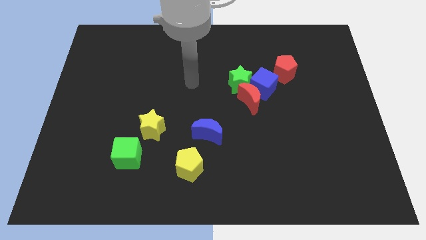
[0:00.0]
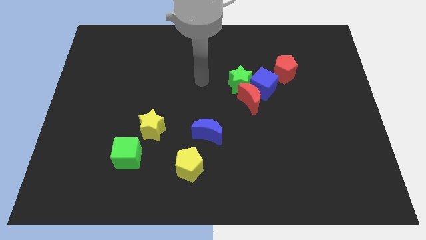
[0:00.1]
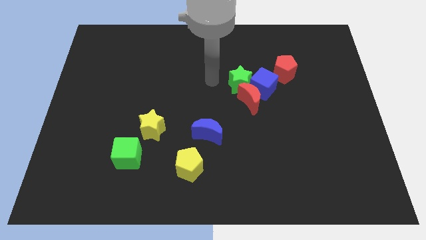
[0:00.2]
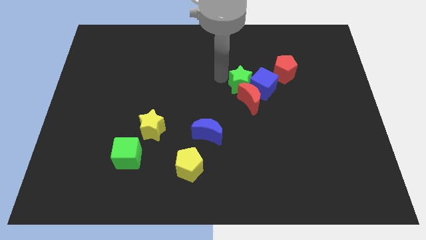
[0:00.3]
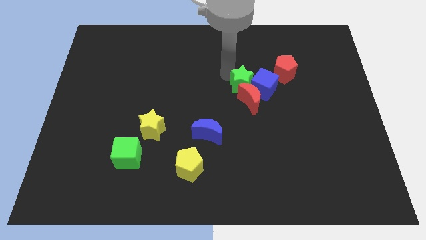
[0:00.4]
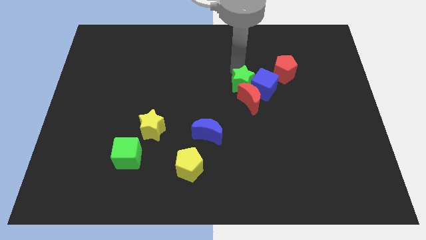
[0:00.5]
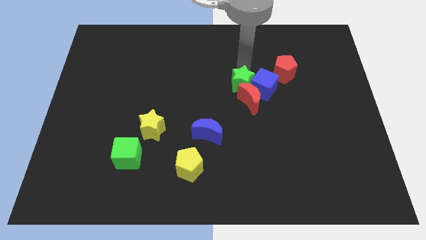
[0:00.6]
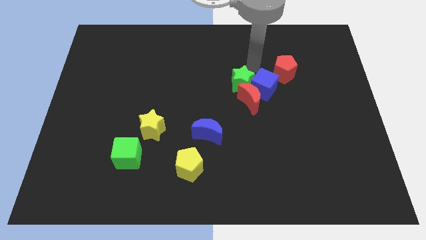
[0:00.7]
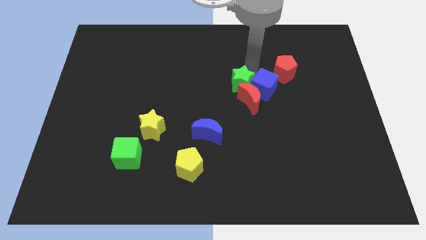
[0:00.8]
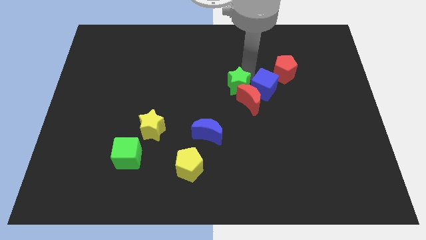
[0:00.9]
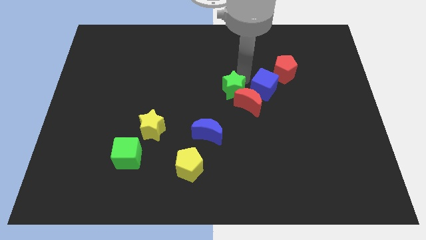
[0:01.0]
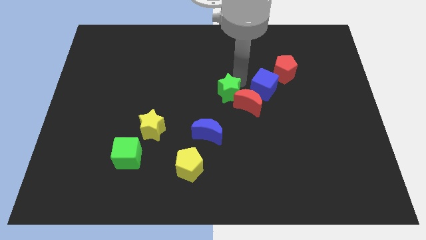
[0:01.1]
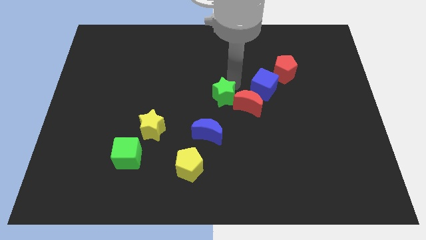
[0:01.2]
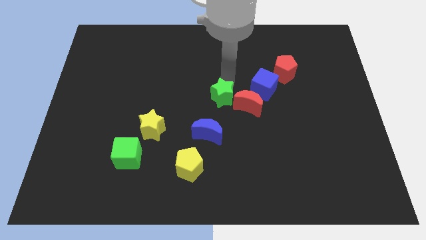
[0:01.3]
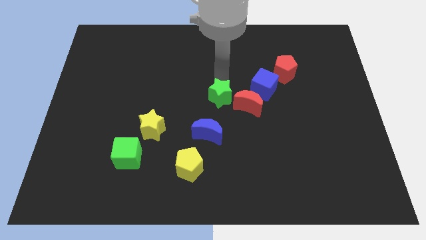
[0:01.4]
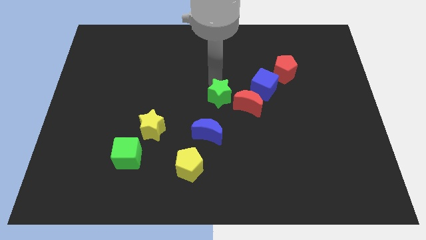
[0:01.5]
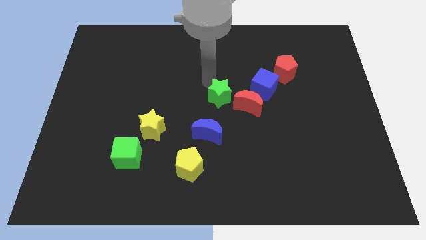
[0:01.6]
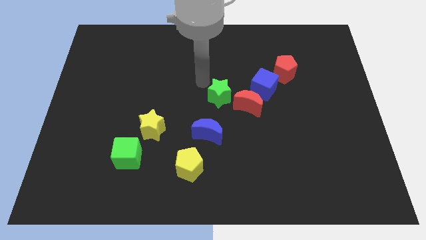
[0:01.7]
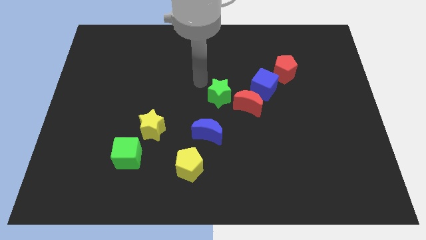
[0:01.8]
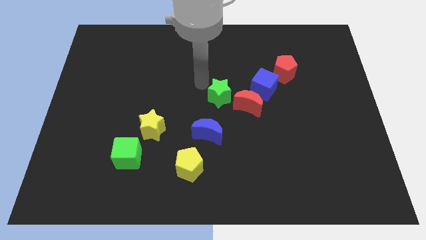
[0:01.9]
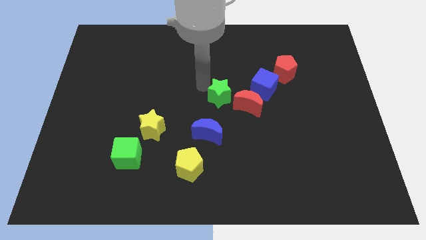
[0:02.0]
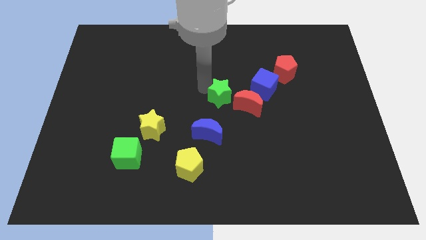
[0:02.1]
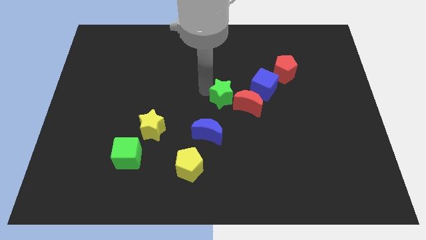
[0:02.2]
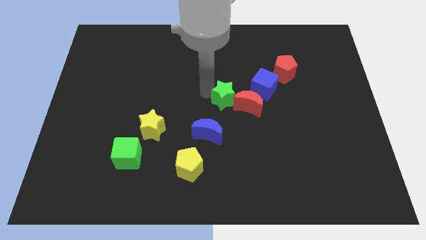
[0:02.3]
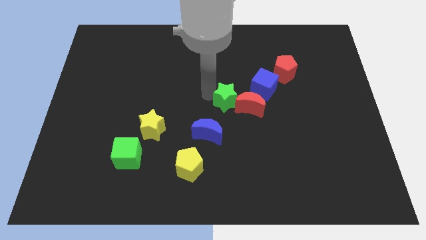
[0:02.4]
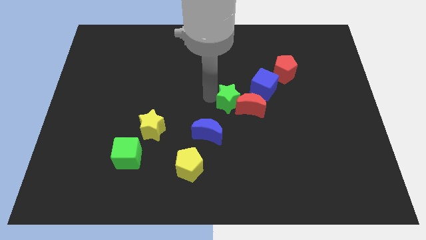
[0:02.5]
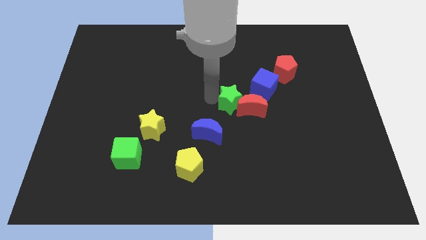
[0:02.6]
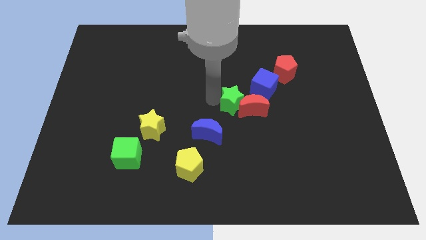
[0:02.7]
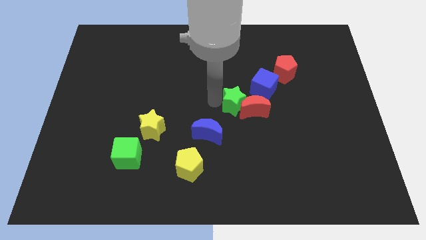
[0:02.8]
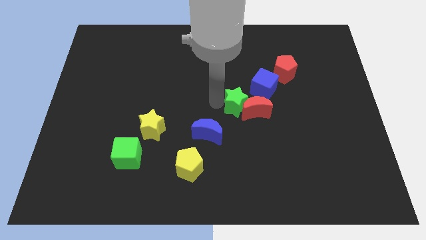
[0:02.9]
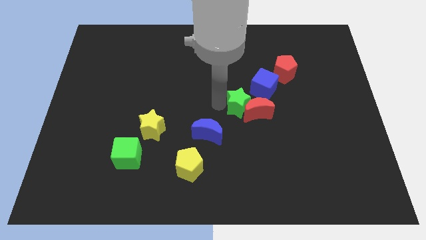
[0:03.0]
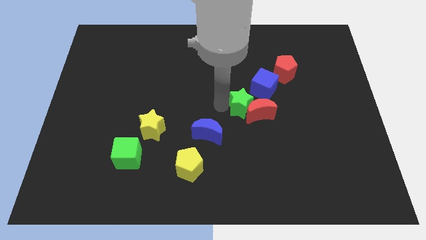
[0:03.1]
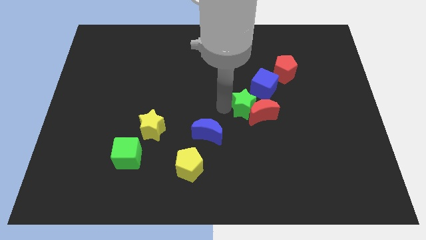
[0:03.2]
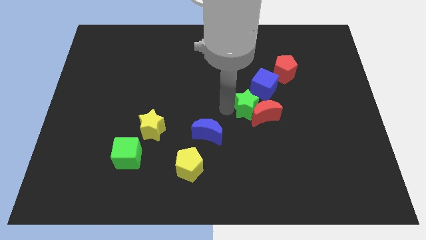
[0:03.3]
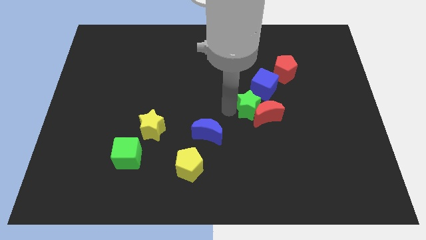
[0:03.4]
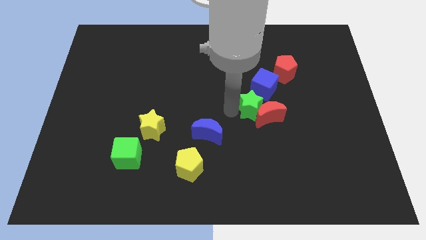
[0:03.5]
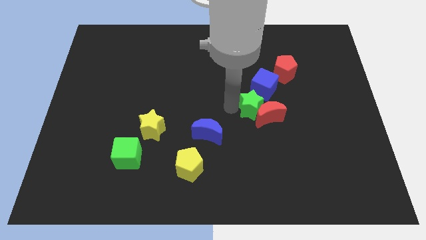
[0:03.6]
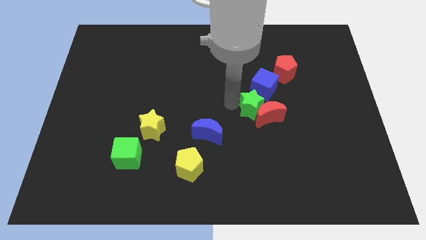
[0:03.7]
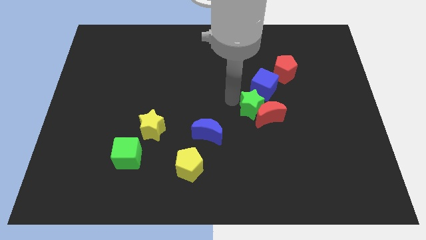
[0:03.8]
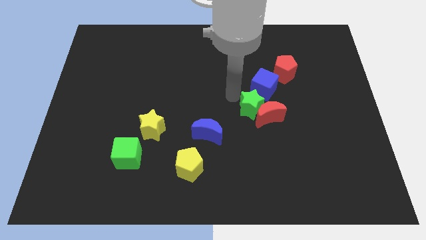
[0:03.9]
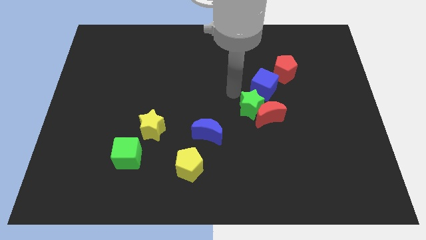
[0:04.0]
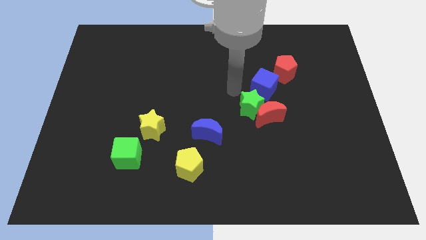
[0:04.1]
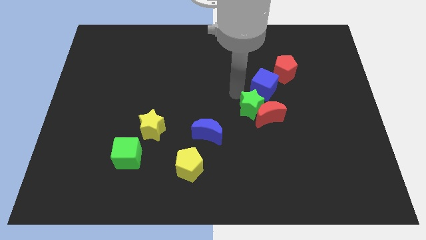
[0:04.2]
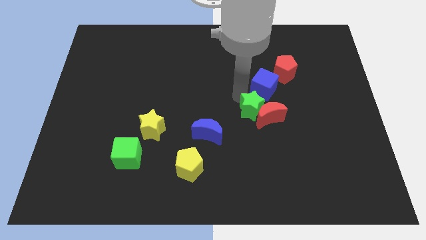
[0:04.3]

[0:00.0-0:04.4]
slightly slide the green star downwards and then to the right

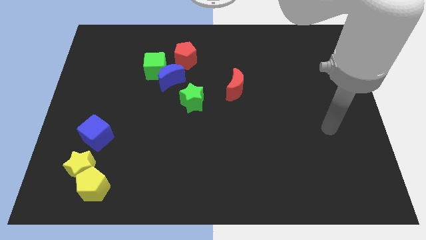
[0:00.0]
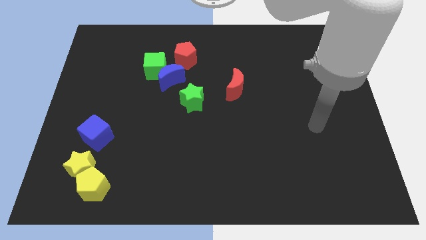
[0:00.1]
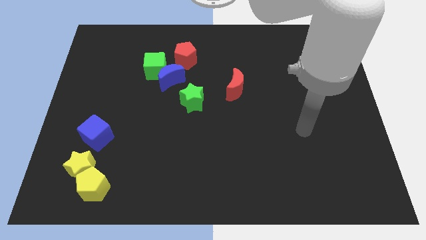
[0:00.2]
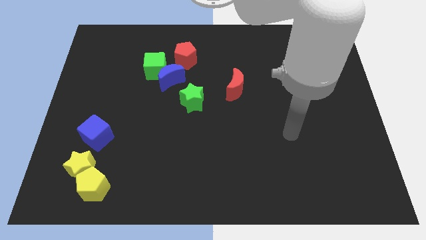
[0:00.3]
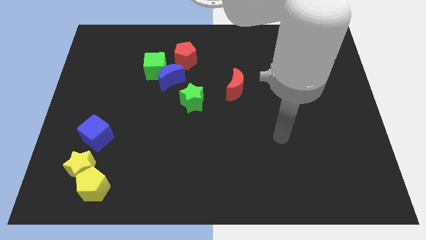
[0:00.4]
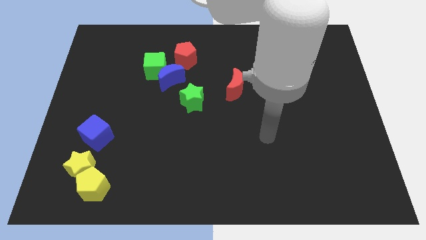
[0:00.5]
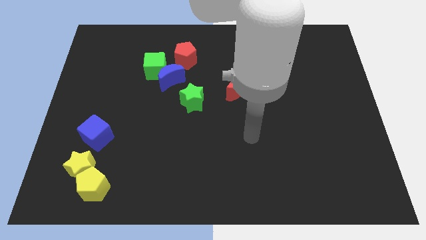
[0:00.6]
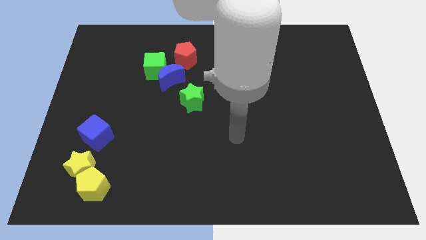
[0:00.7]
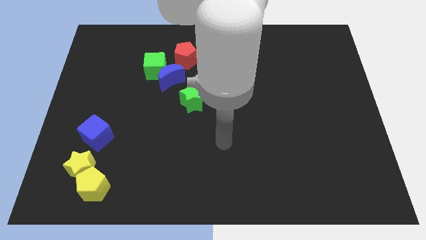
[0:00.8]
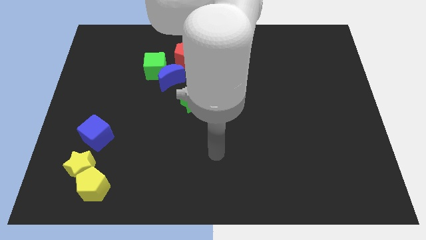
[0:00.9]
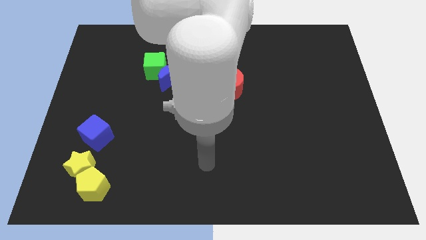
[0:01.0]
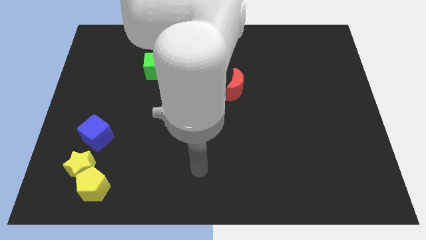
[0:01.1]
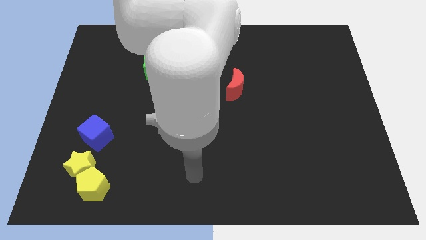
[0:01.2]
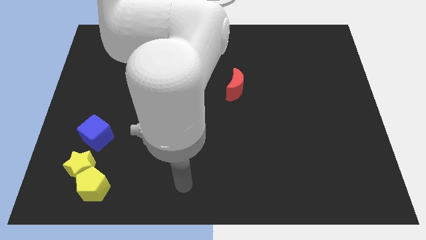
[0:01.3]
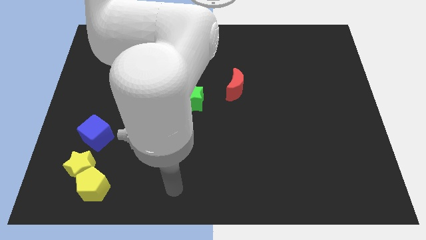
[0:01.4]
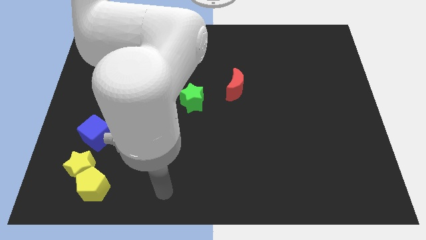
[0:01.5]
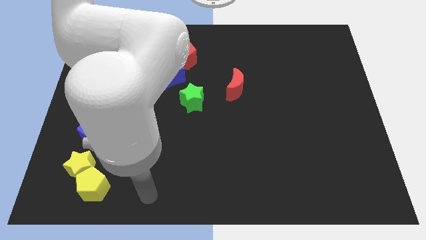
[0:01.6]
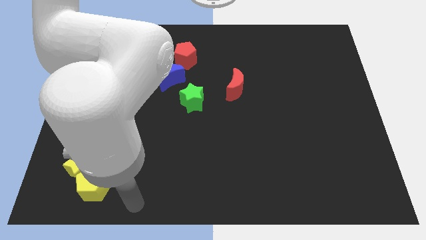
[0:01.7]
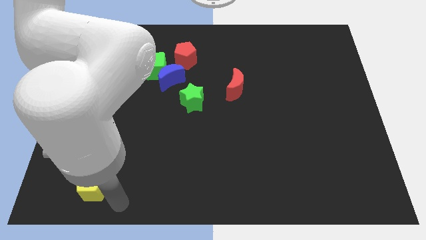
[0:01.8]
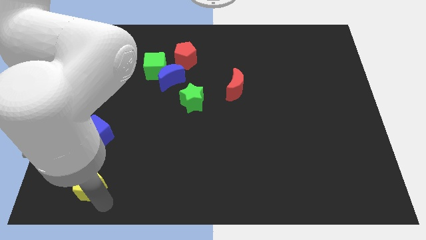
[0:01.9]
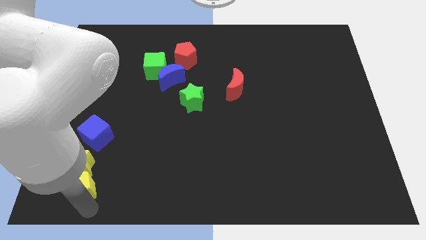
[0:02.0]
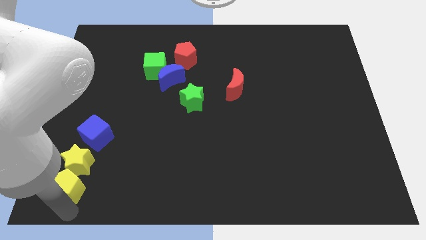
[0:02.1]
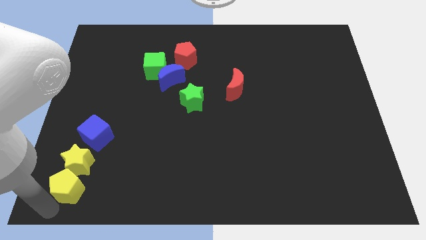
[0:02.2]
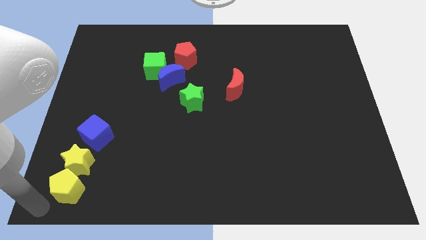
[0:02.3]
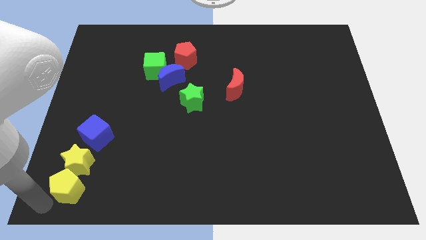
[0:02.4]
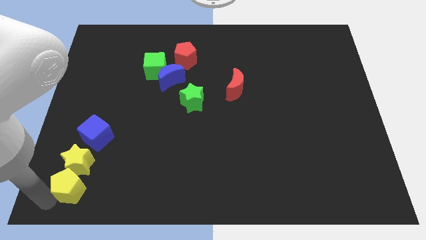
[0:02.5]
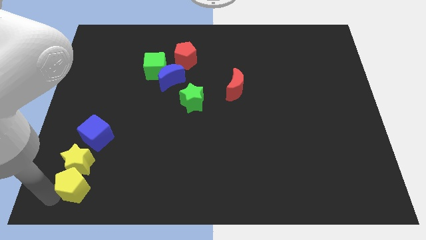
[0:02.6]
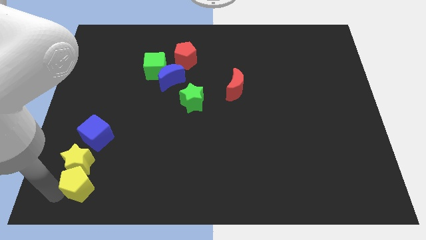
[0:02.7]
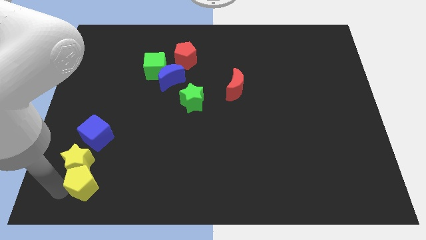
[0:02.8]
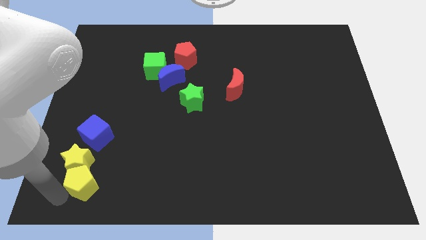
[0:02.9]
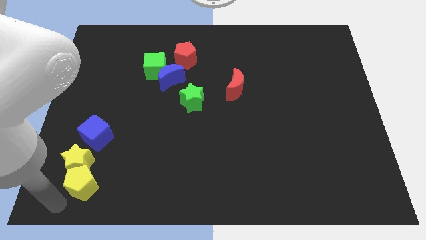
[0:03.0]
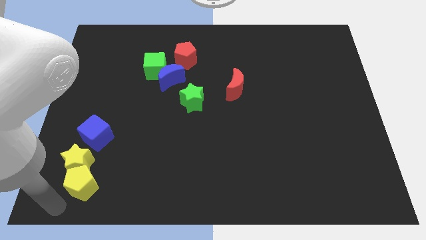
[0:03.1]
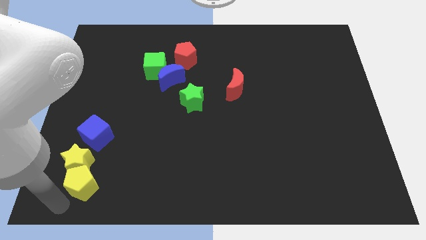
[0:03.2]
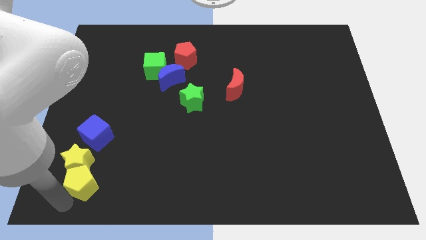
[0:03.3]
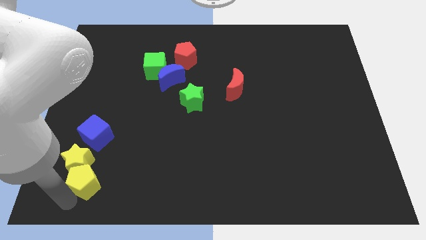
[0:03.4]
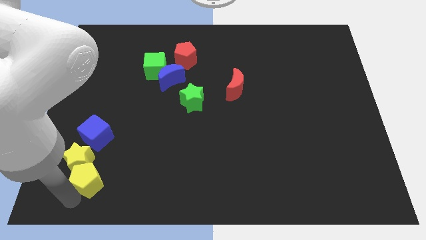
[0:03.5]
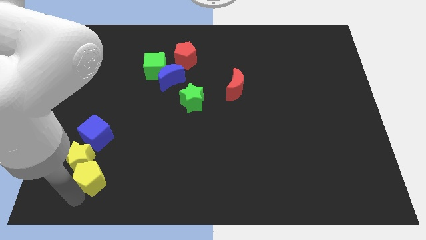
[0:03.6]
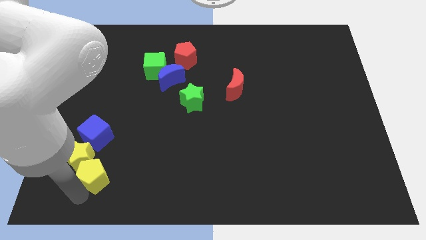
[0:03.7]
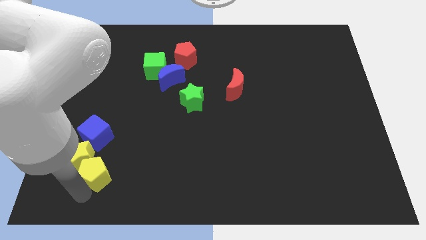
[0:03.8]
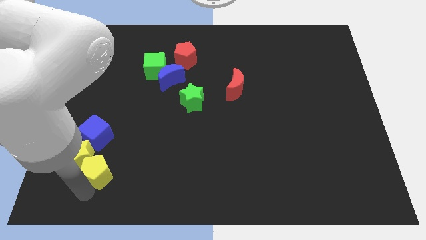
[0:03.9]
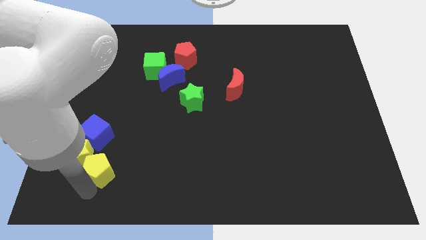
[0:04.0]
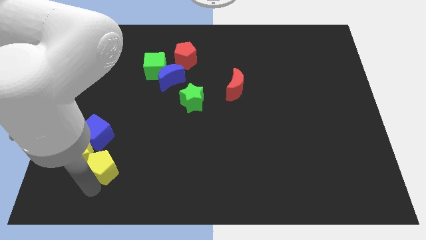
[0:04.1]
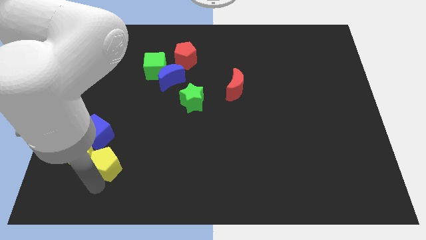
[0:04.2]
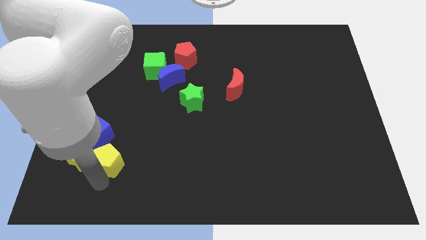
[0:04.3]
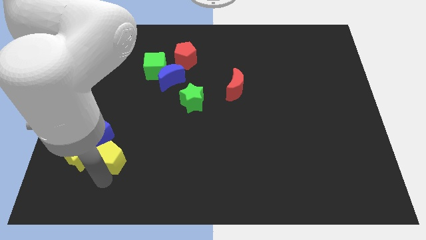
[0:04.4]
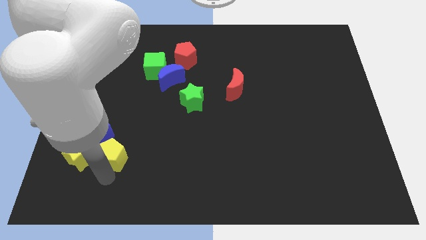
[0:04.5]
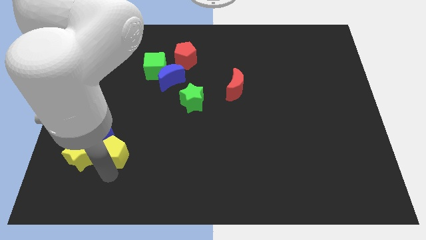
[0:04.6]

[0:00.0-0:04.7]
slightly push the yellow pentagon up
